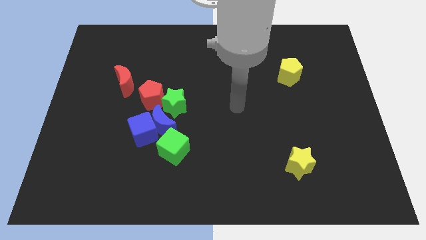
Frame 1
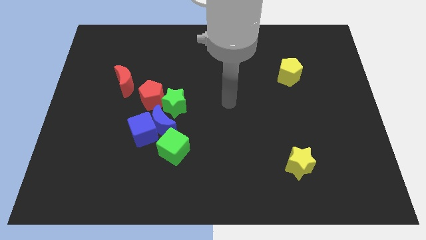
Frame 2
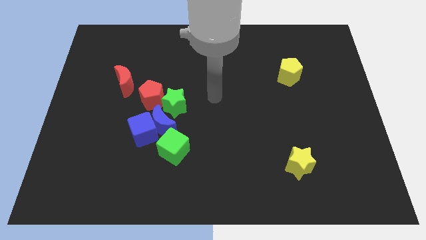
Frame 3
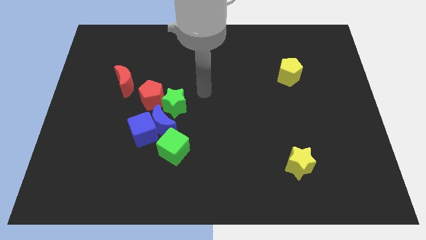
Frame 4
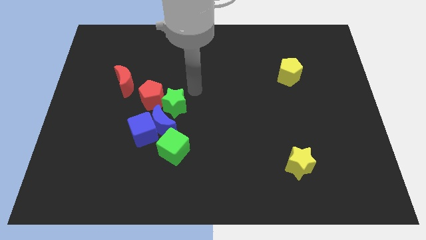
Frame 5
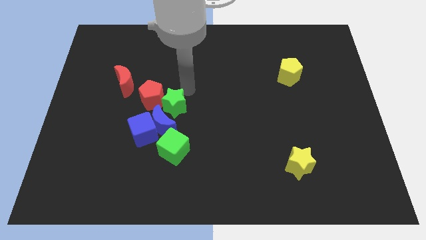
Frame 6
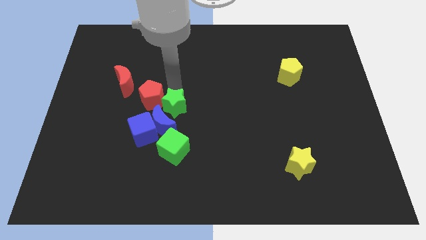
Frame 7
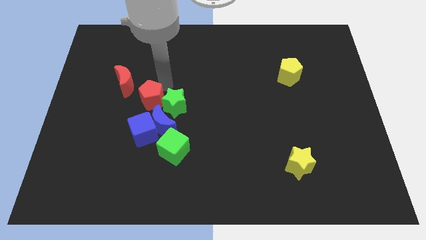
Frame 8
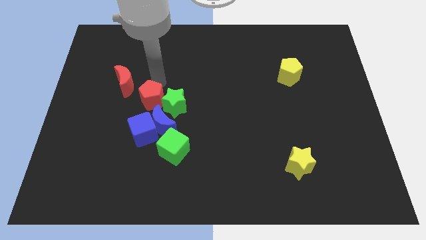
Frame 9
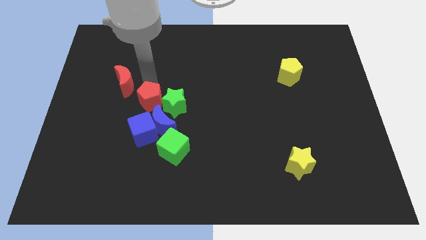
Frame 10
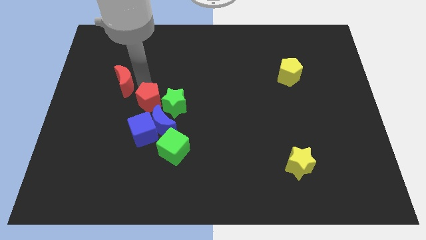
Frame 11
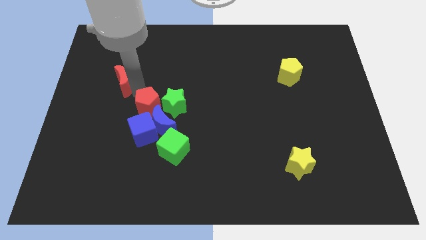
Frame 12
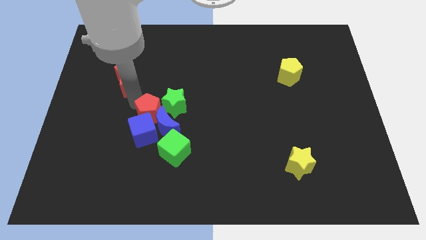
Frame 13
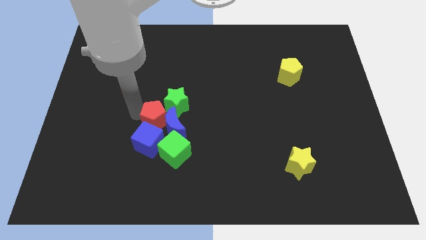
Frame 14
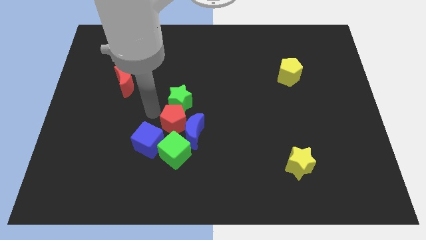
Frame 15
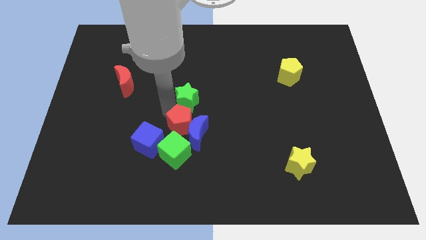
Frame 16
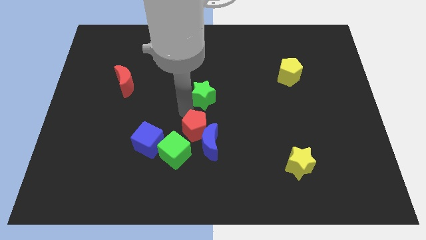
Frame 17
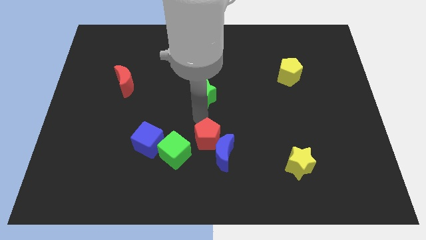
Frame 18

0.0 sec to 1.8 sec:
separate the blue moon from the group of blocks

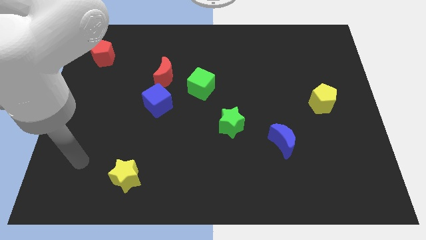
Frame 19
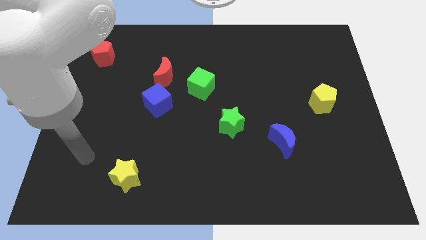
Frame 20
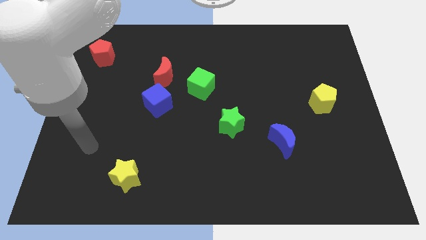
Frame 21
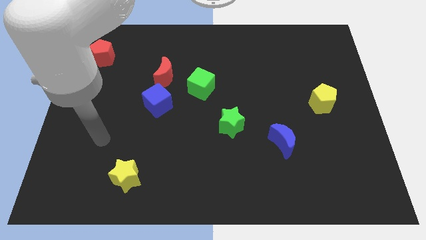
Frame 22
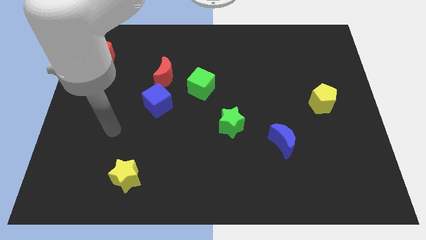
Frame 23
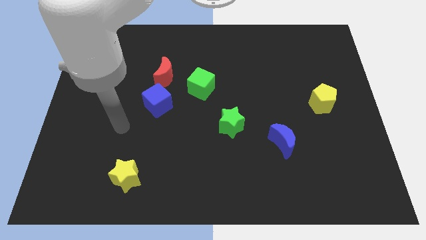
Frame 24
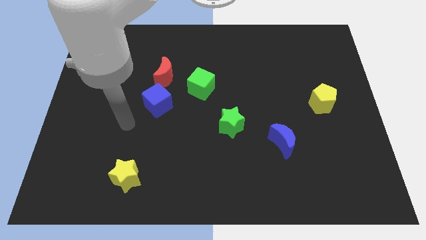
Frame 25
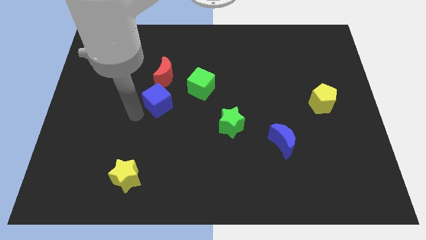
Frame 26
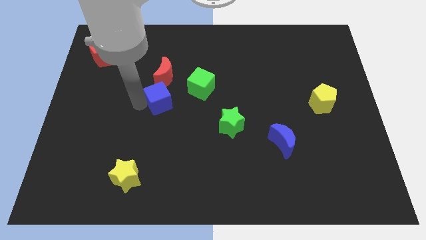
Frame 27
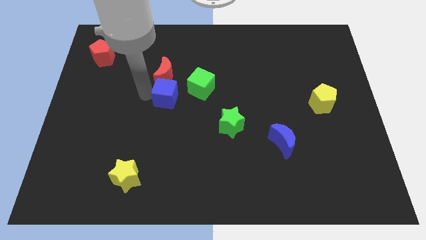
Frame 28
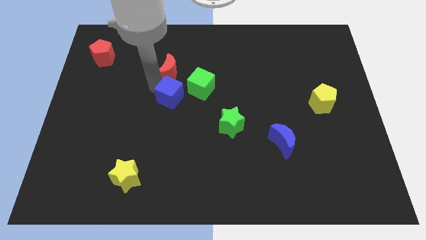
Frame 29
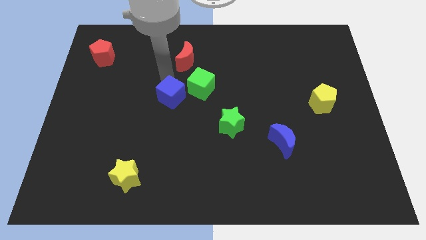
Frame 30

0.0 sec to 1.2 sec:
move the blue cube away from the red moon

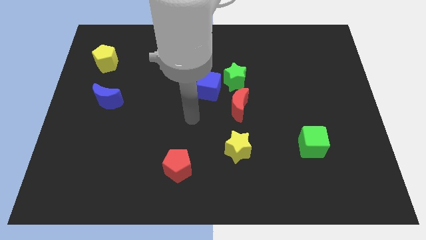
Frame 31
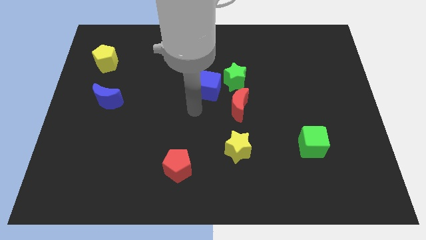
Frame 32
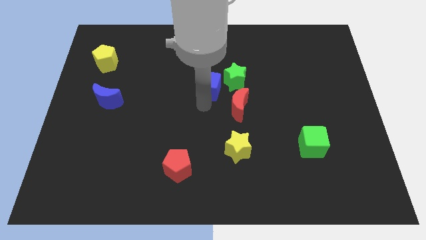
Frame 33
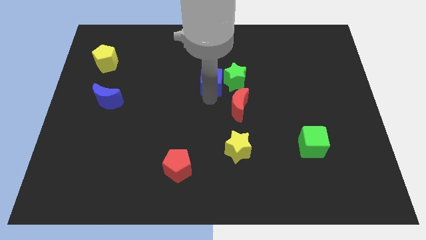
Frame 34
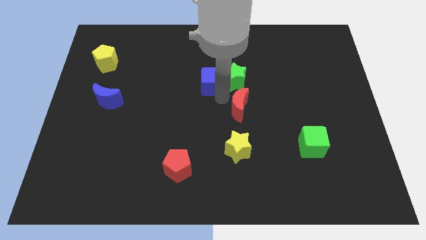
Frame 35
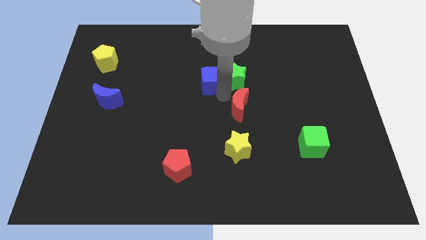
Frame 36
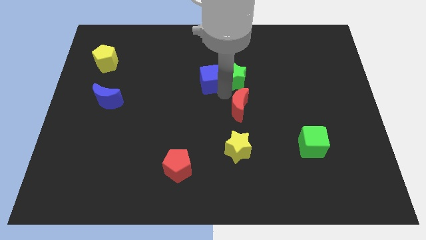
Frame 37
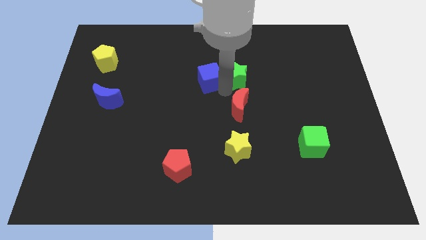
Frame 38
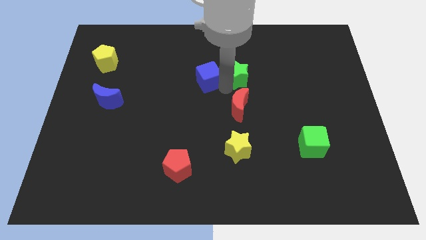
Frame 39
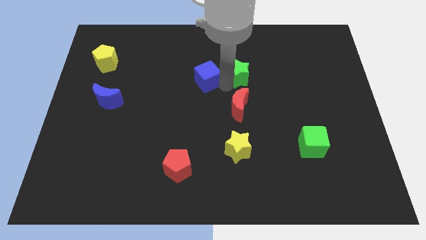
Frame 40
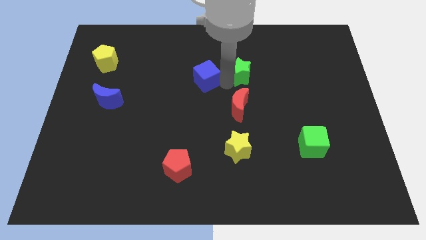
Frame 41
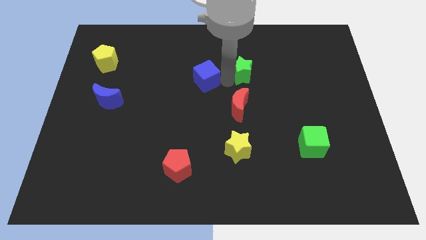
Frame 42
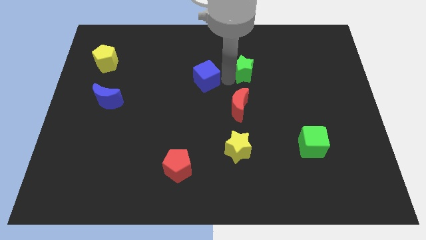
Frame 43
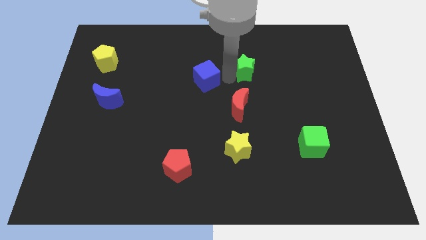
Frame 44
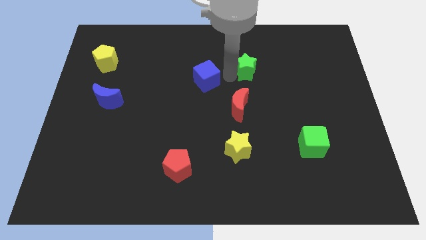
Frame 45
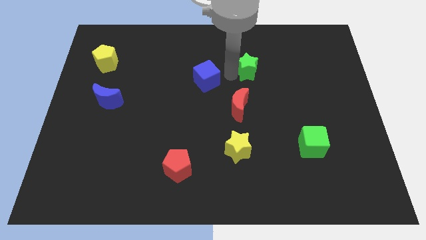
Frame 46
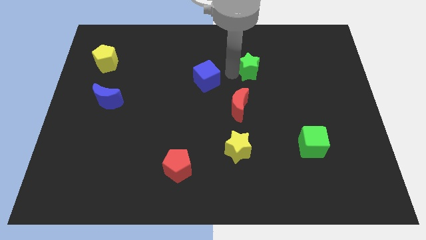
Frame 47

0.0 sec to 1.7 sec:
separate the green star from the blue cube and red moon

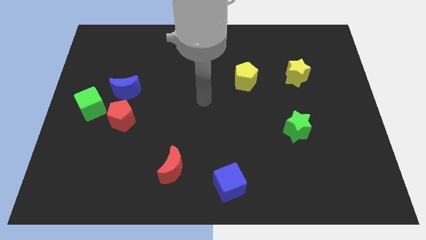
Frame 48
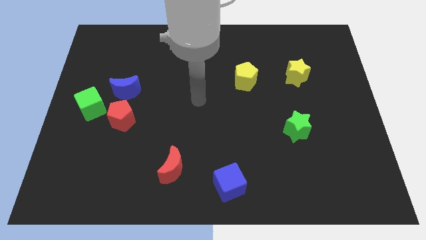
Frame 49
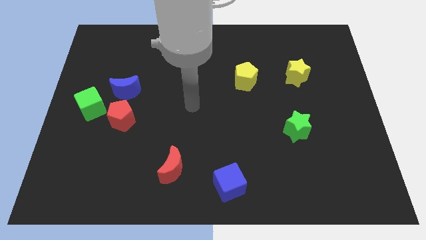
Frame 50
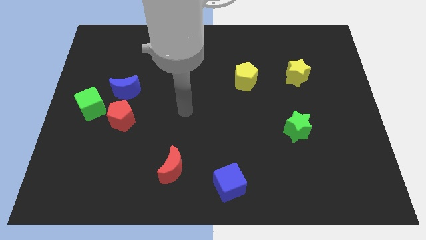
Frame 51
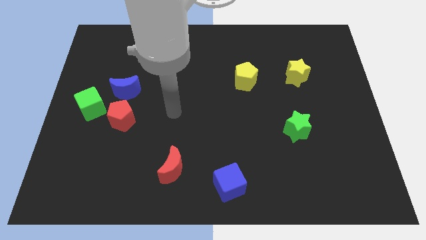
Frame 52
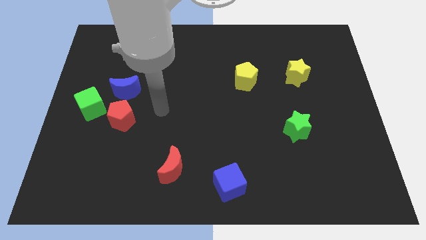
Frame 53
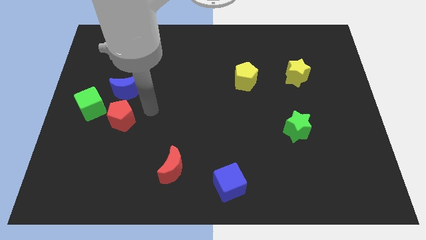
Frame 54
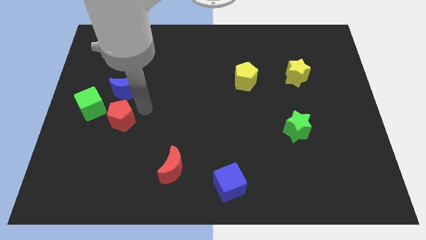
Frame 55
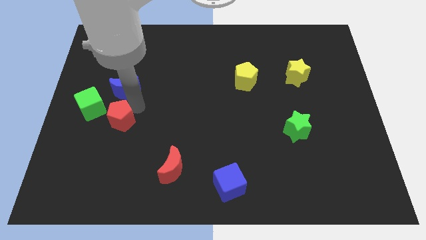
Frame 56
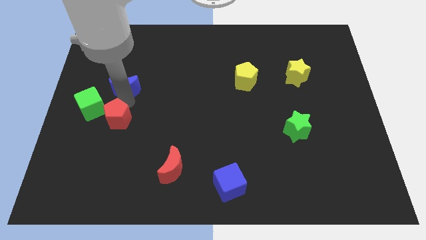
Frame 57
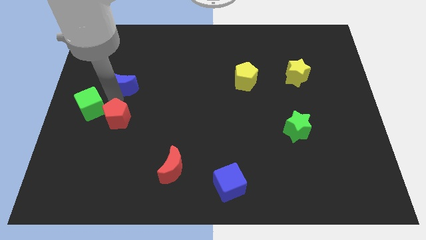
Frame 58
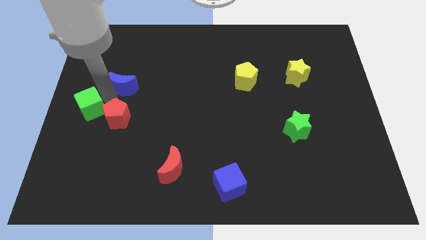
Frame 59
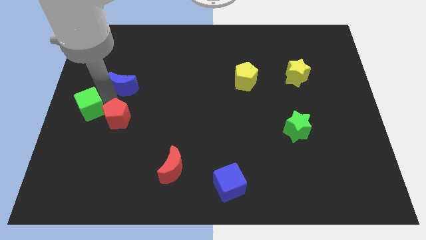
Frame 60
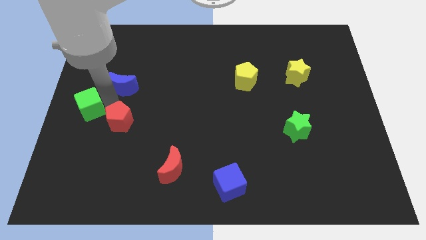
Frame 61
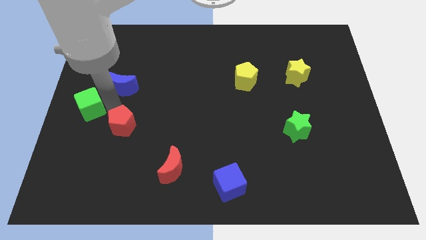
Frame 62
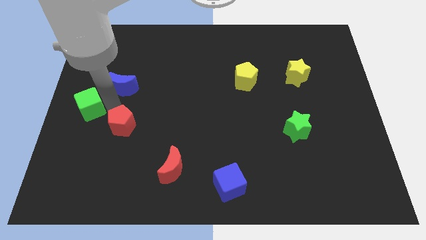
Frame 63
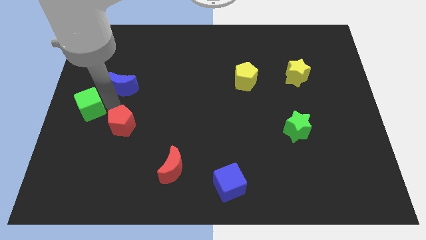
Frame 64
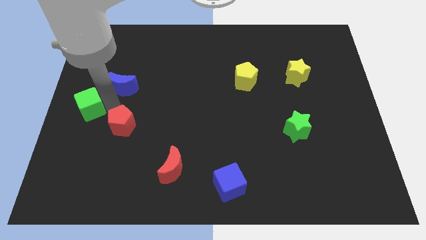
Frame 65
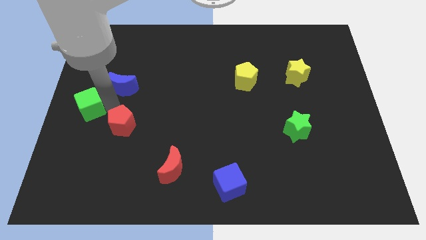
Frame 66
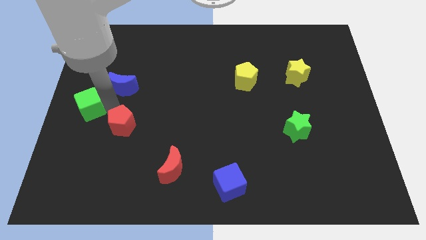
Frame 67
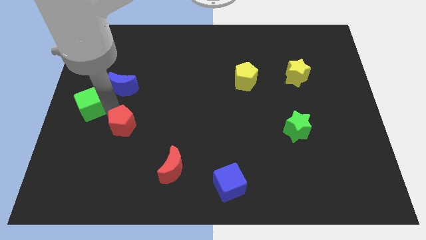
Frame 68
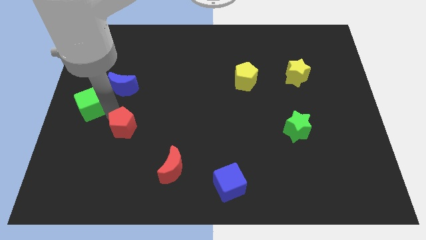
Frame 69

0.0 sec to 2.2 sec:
separate the red pentagon from the blue moon and green cube

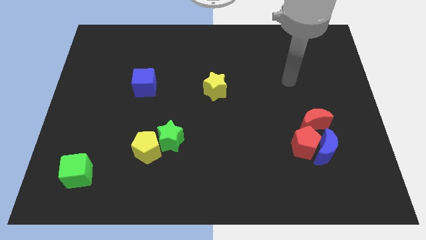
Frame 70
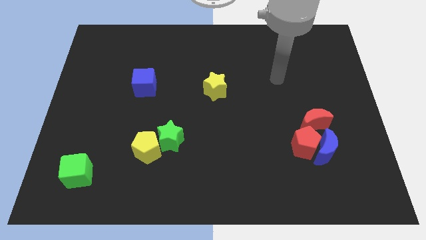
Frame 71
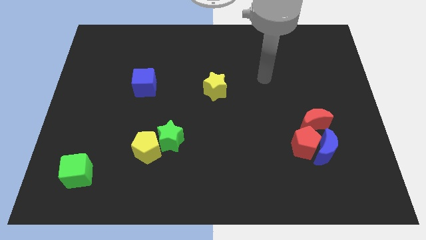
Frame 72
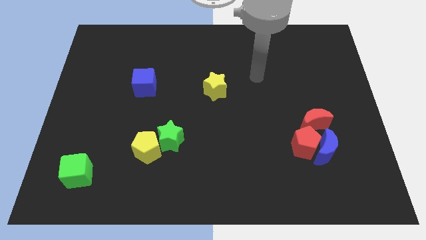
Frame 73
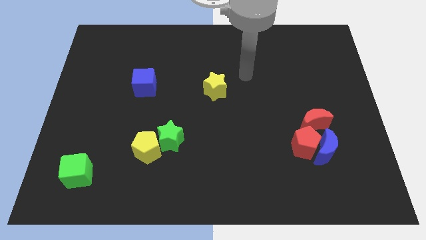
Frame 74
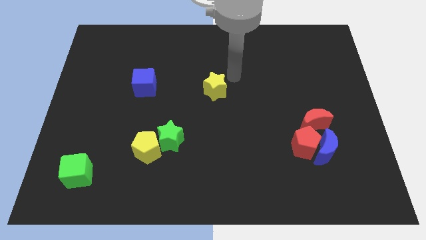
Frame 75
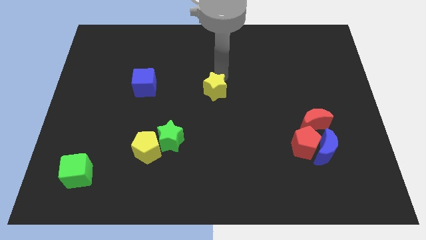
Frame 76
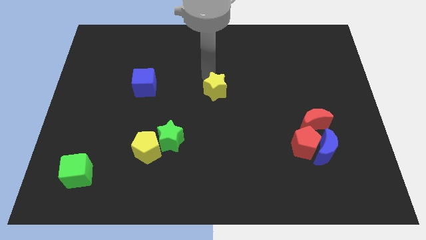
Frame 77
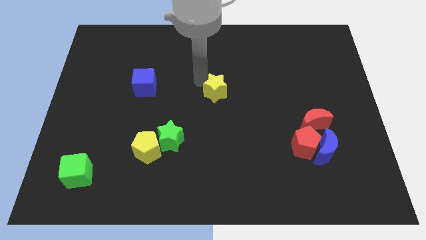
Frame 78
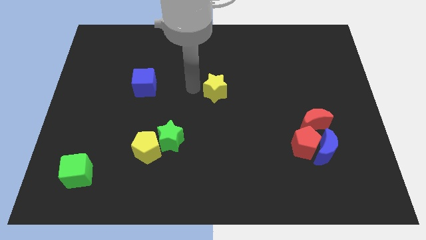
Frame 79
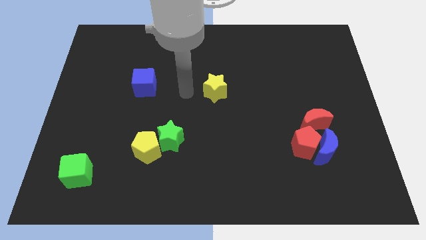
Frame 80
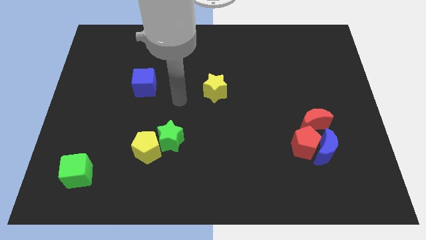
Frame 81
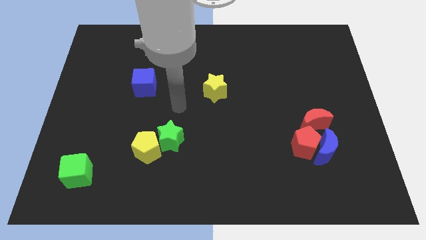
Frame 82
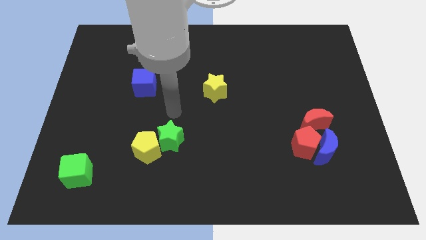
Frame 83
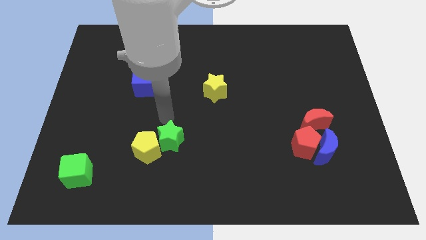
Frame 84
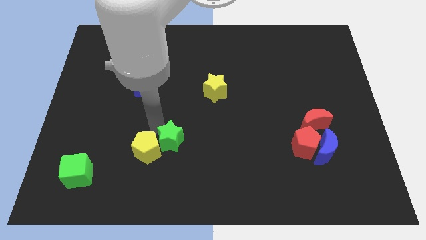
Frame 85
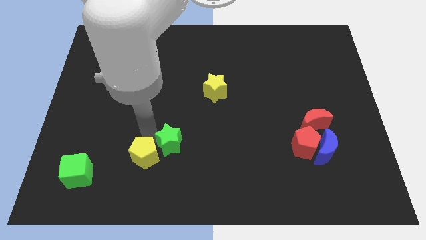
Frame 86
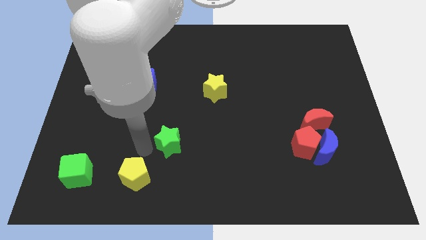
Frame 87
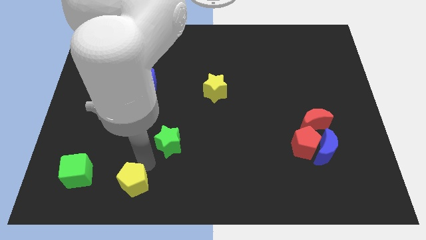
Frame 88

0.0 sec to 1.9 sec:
separate the green star from the yellow pentagon

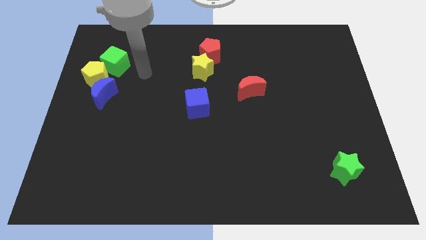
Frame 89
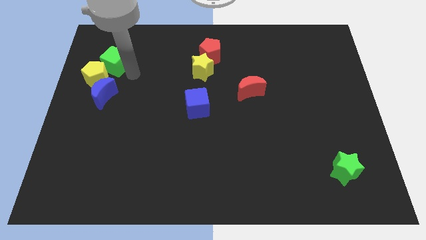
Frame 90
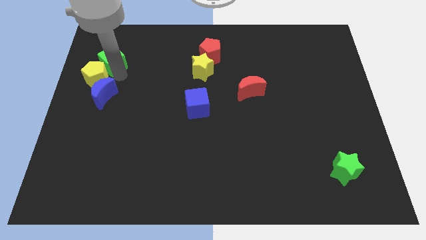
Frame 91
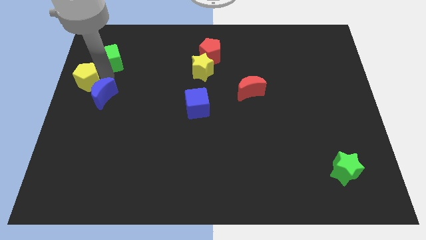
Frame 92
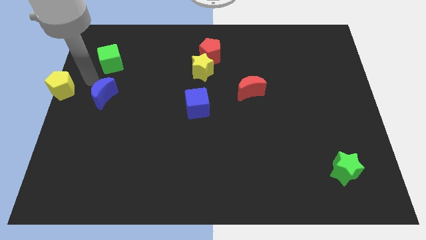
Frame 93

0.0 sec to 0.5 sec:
pull the blue moon apart from the yellow pentagon
